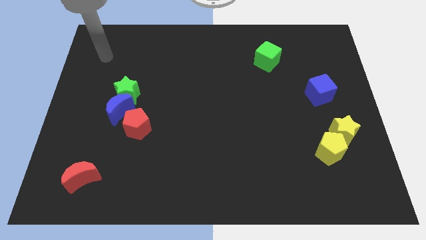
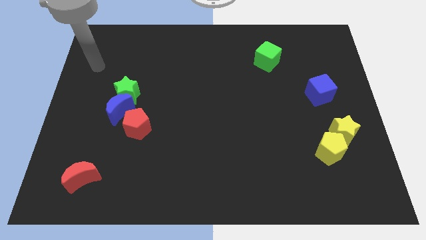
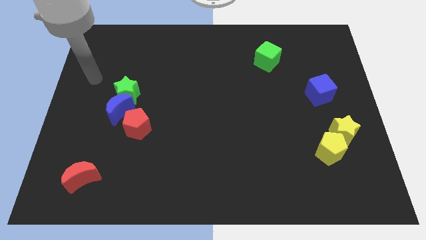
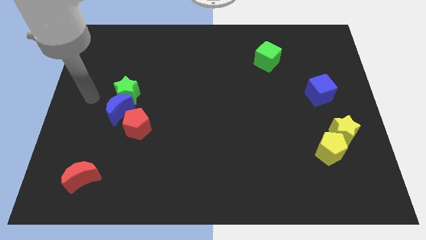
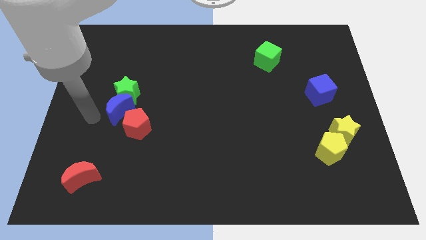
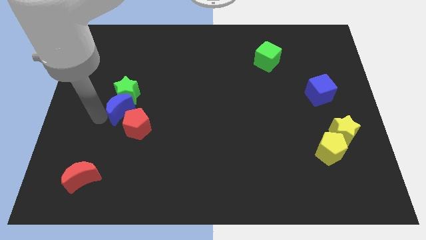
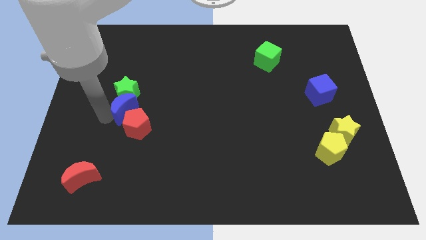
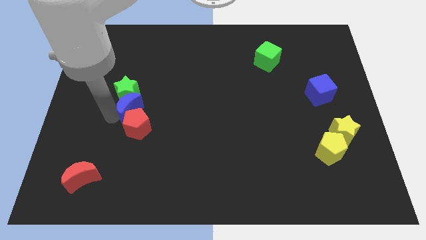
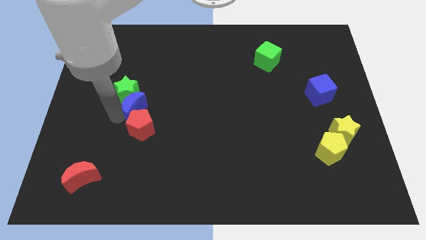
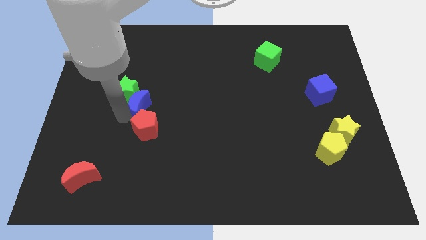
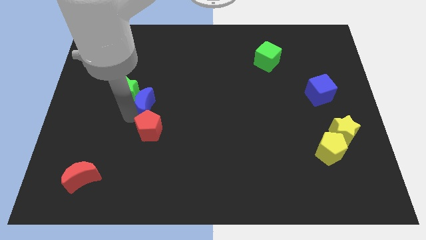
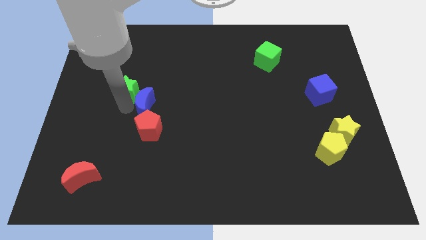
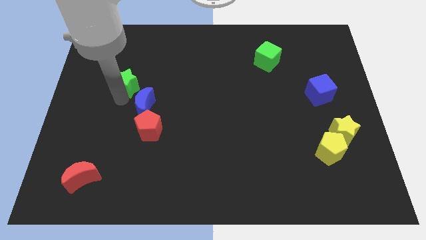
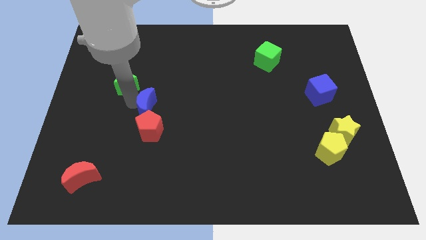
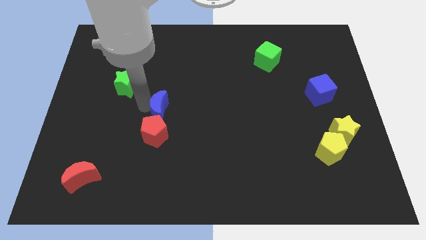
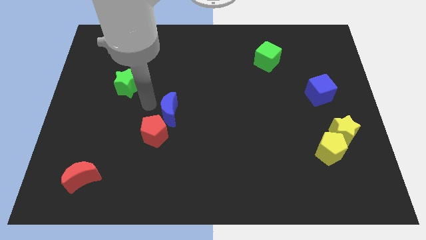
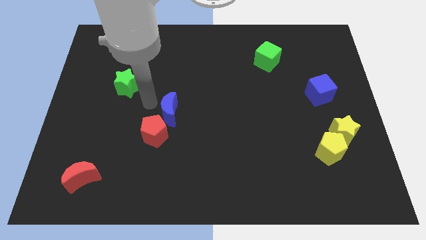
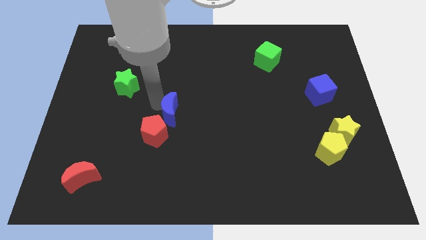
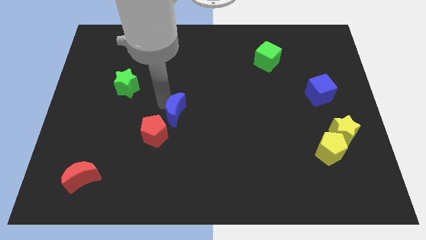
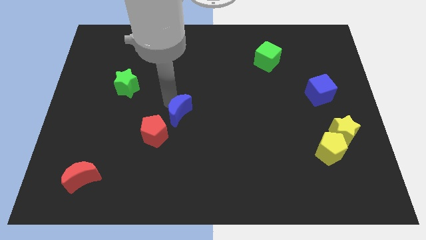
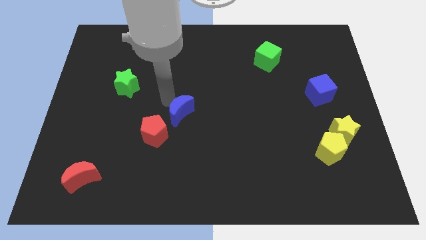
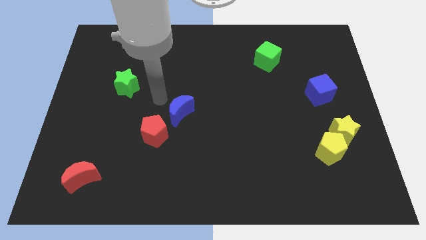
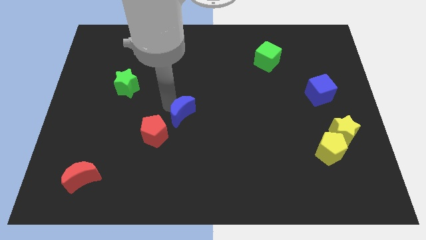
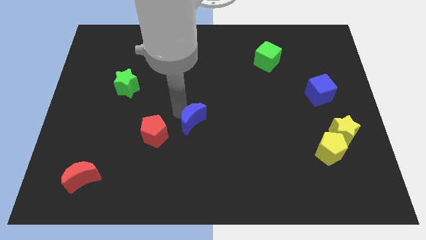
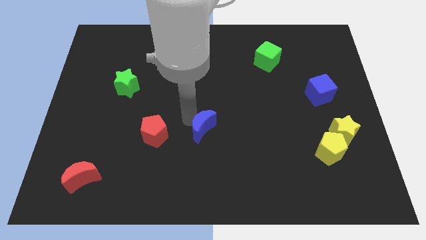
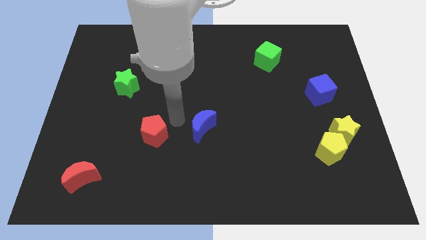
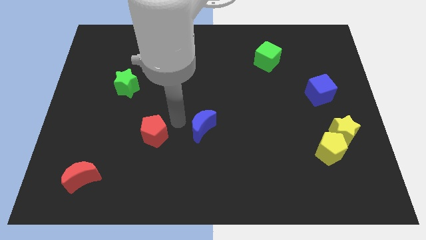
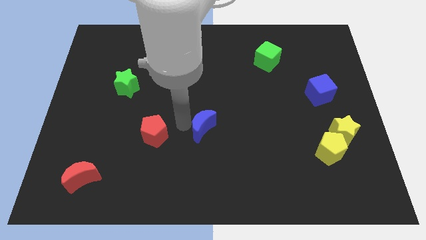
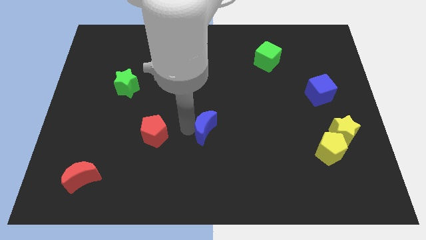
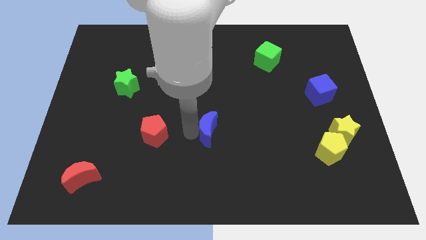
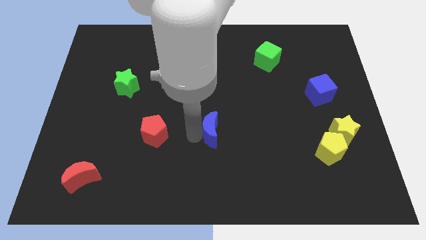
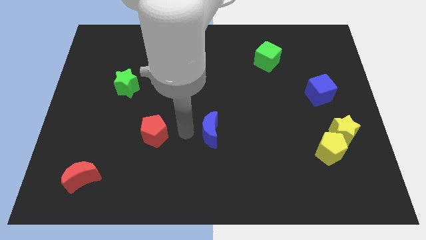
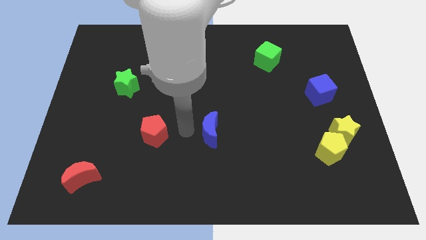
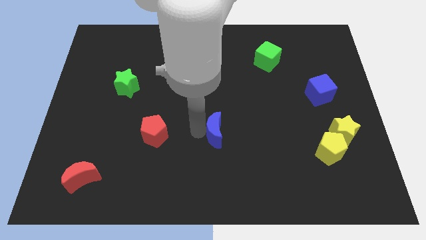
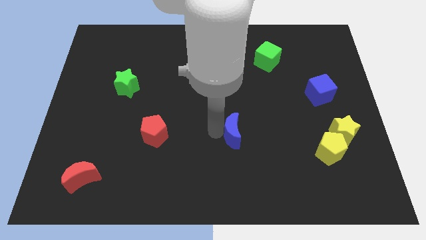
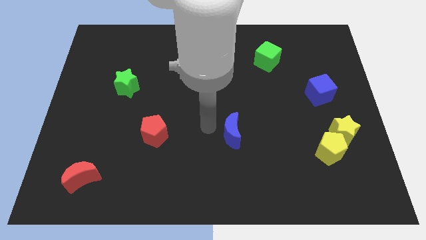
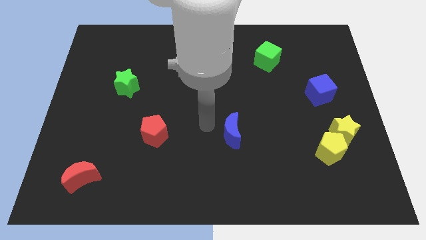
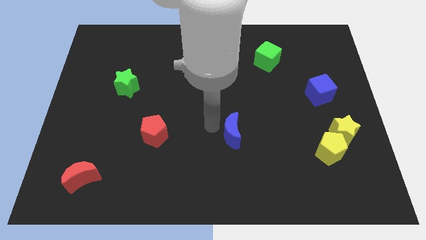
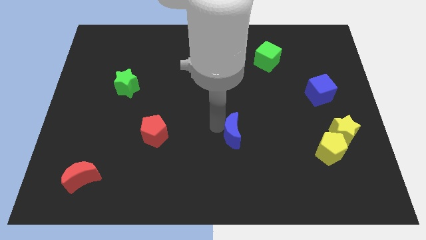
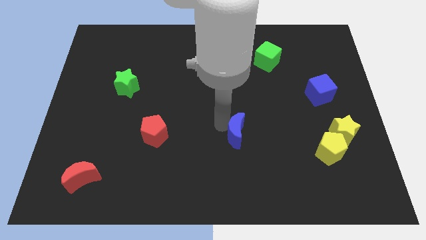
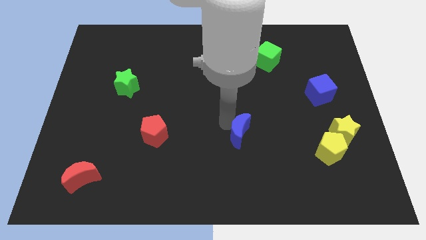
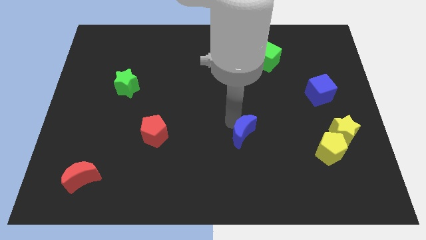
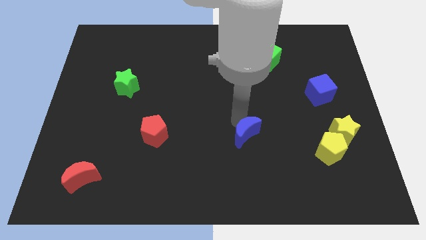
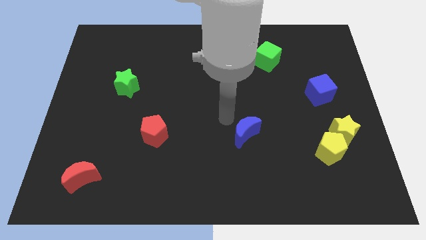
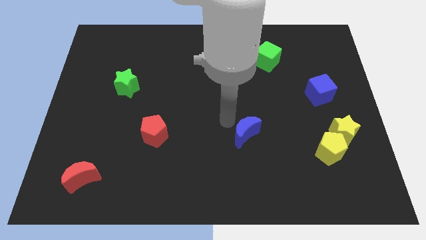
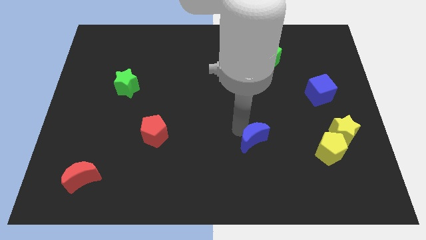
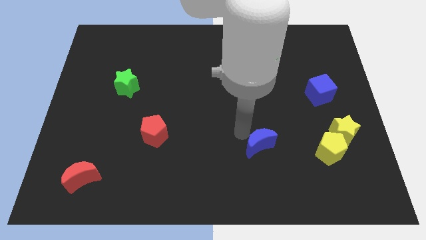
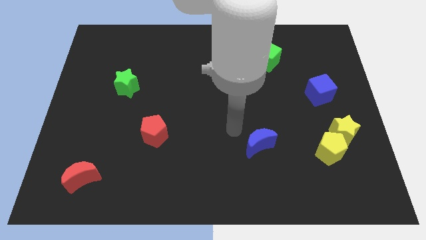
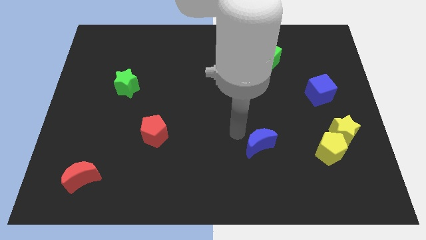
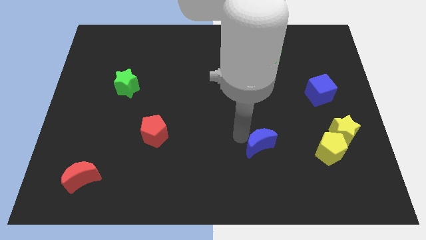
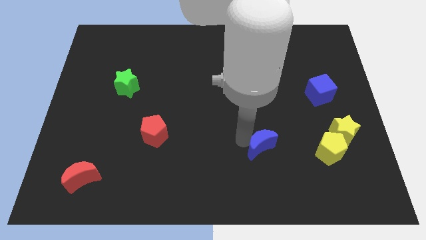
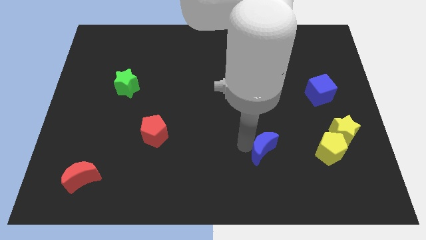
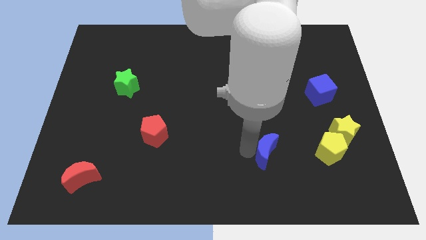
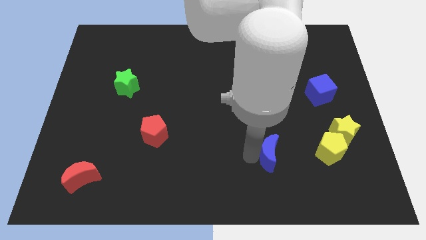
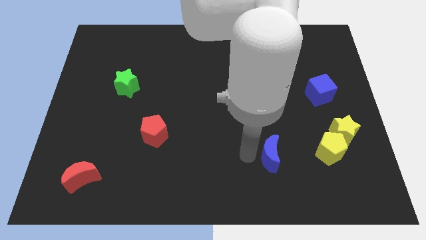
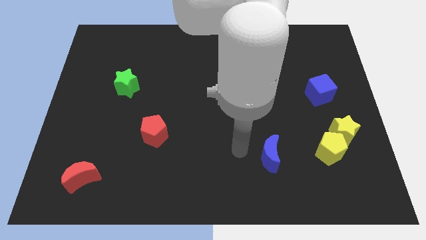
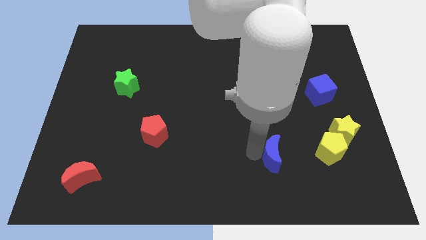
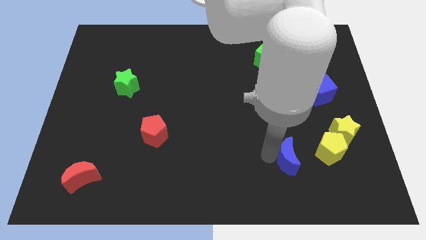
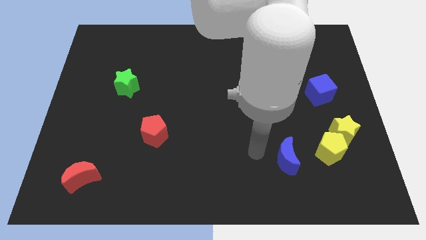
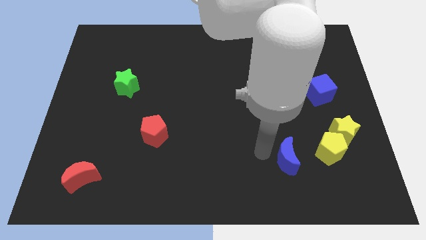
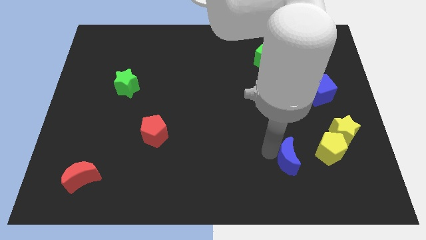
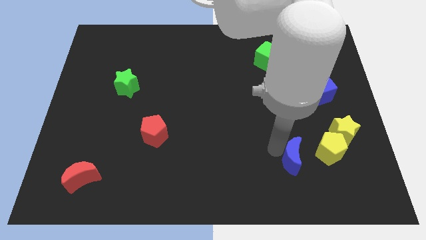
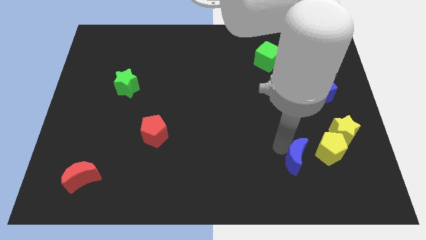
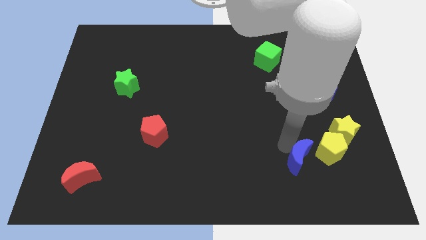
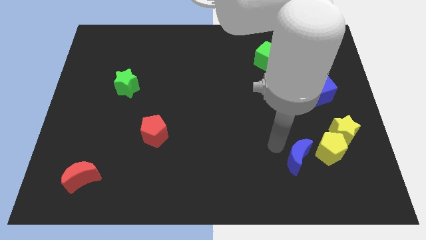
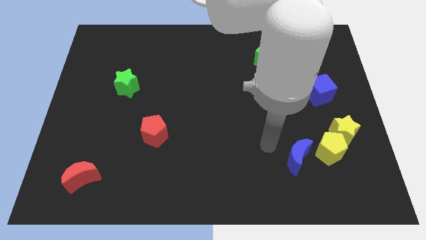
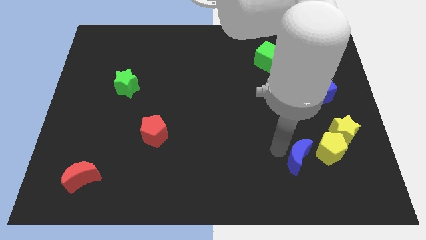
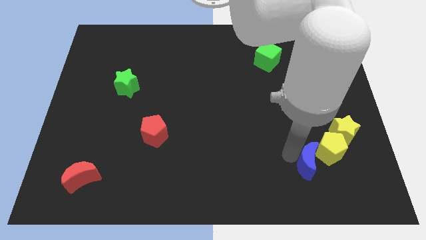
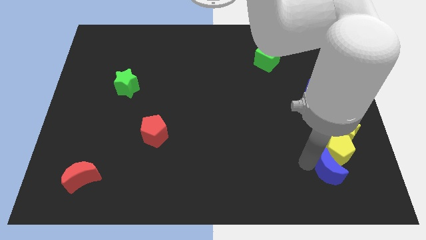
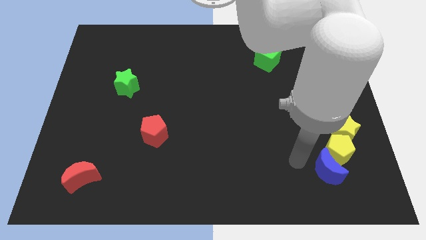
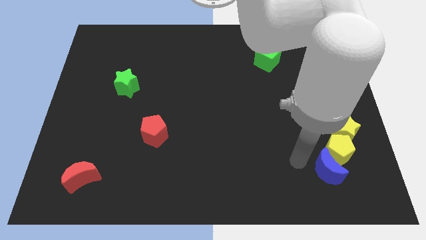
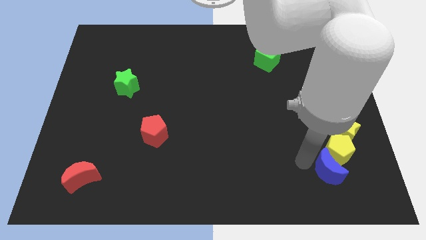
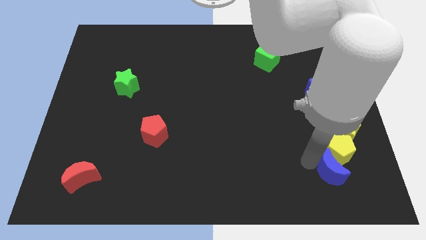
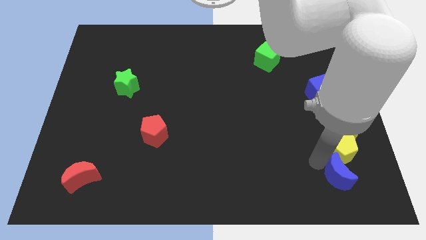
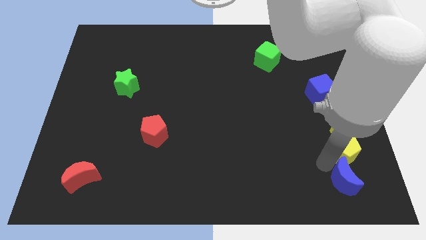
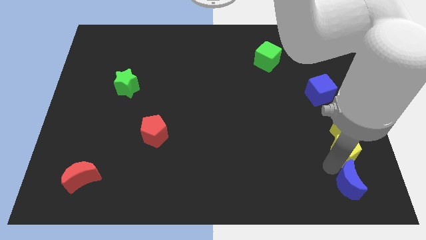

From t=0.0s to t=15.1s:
put the blue moon to the bottom right of the board
